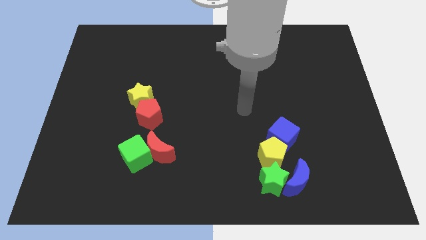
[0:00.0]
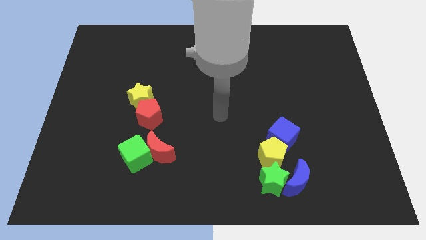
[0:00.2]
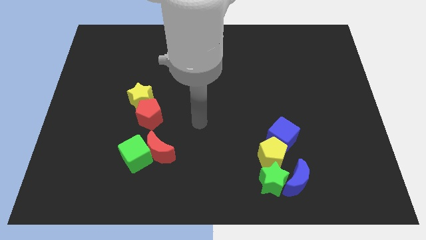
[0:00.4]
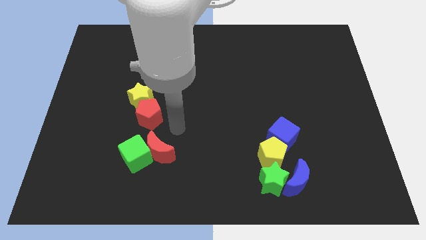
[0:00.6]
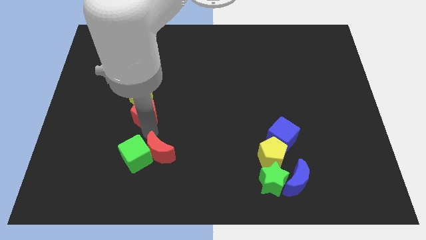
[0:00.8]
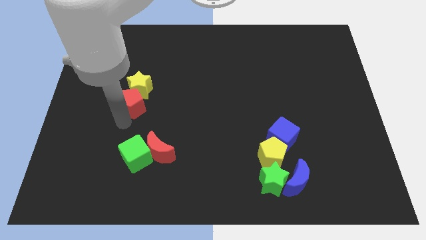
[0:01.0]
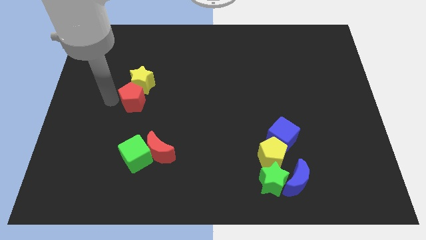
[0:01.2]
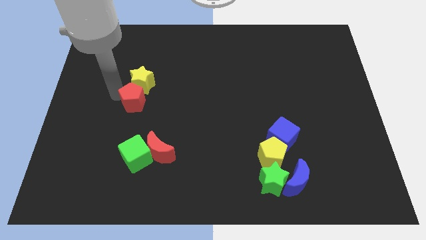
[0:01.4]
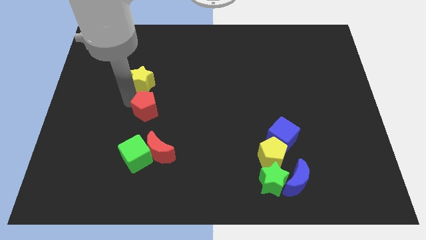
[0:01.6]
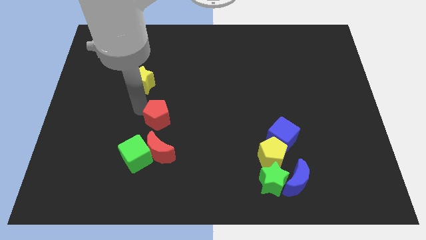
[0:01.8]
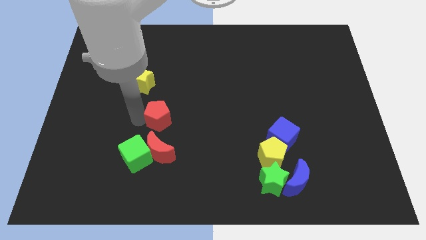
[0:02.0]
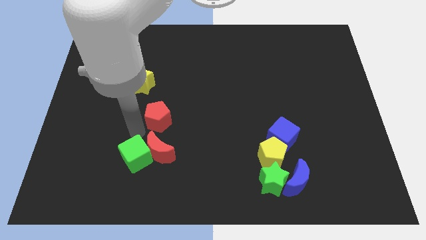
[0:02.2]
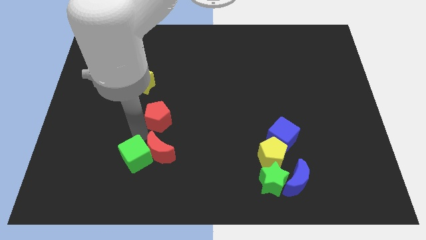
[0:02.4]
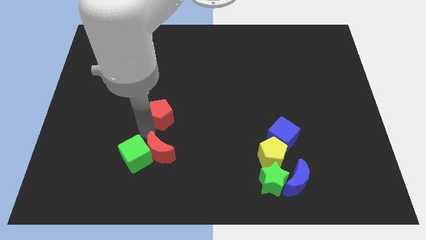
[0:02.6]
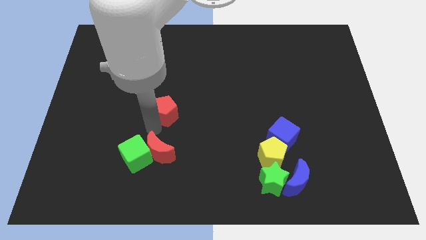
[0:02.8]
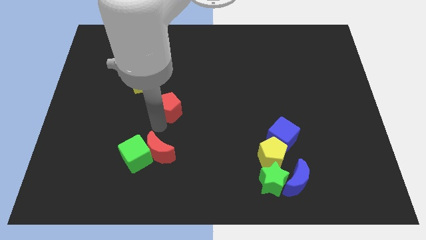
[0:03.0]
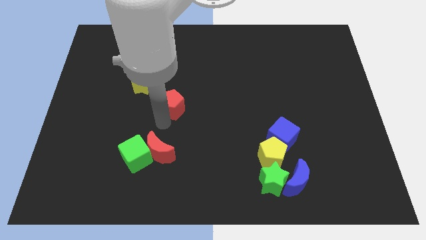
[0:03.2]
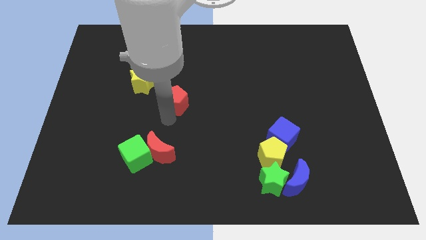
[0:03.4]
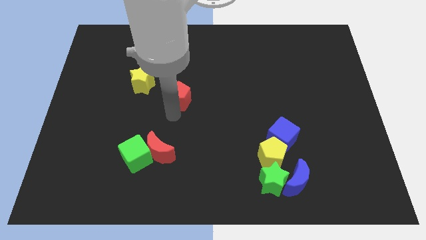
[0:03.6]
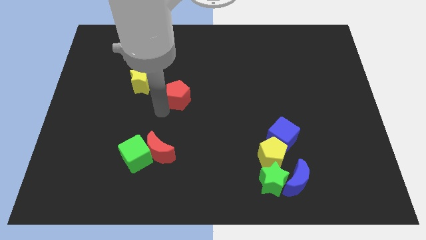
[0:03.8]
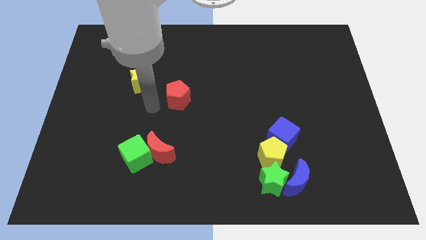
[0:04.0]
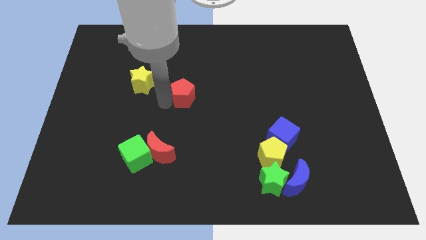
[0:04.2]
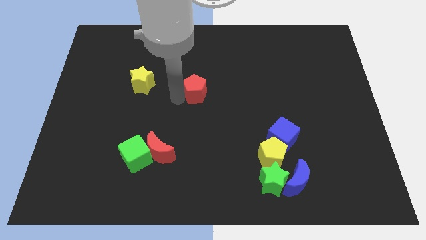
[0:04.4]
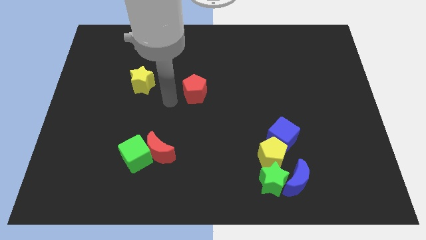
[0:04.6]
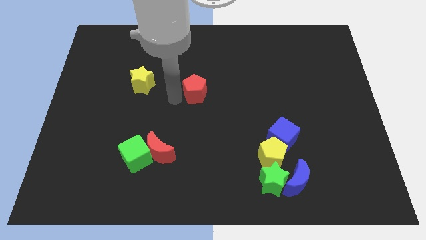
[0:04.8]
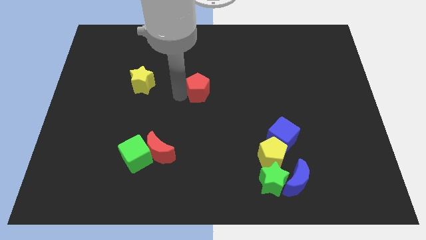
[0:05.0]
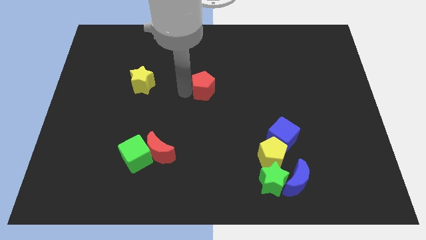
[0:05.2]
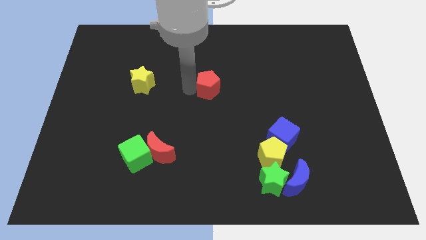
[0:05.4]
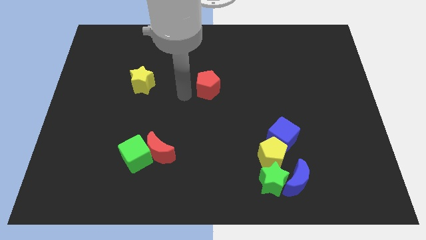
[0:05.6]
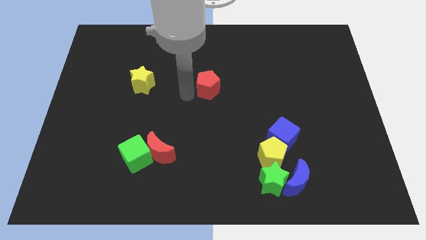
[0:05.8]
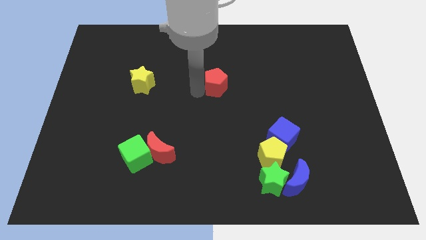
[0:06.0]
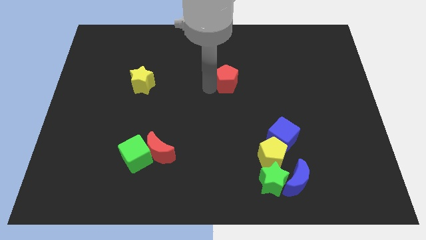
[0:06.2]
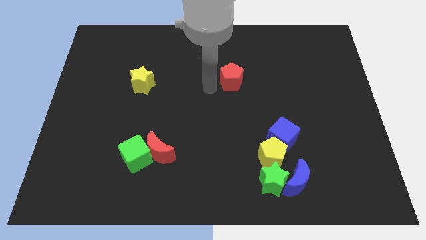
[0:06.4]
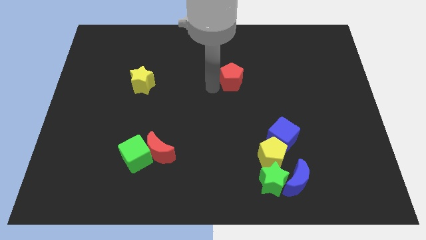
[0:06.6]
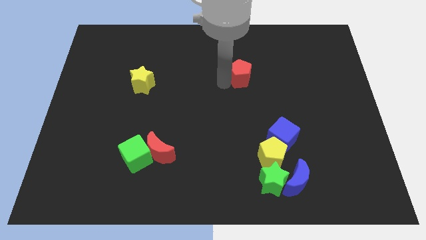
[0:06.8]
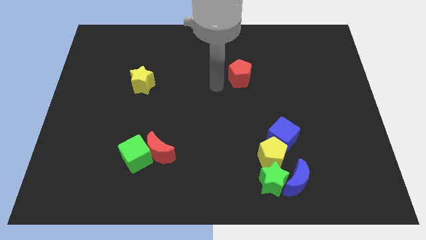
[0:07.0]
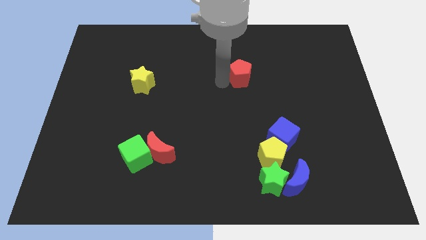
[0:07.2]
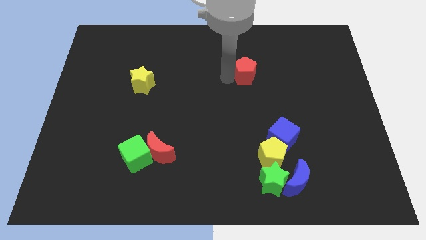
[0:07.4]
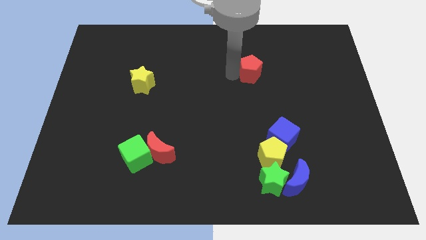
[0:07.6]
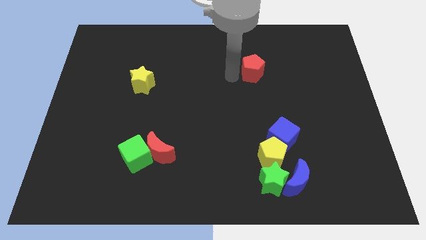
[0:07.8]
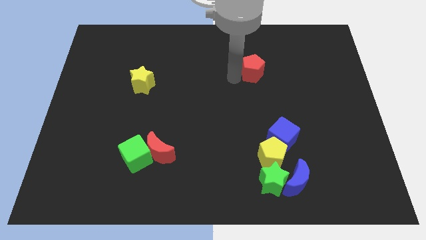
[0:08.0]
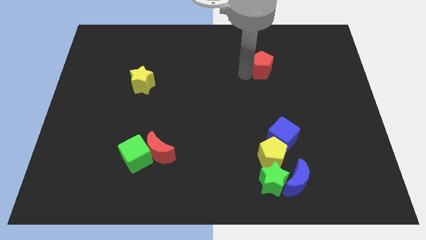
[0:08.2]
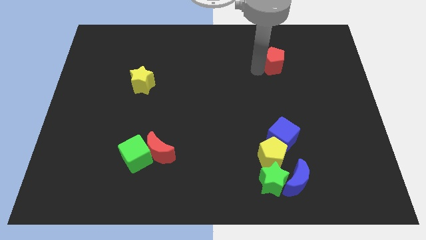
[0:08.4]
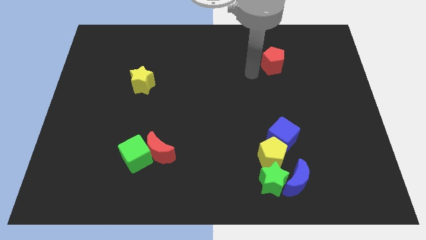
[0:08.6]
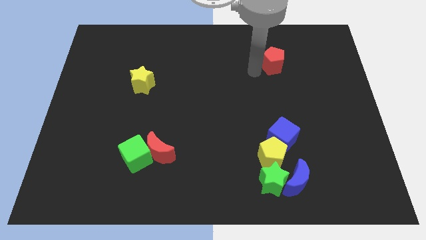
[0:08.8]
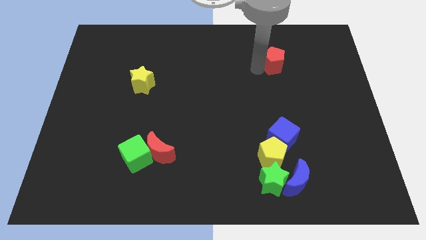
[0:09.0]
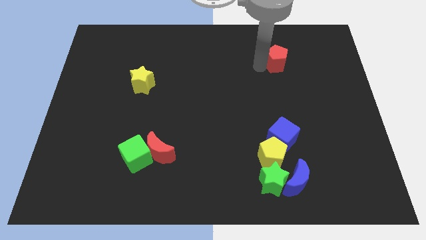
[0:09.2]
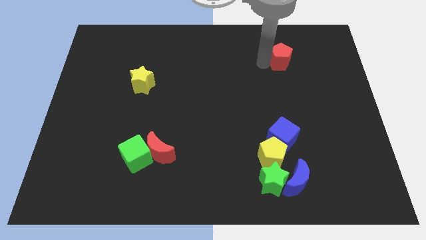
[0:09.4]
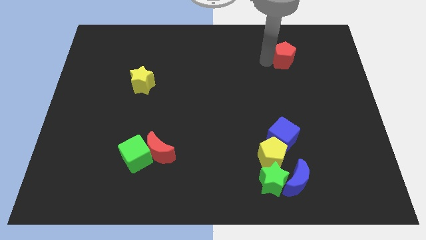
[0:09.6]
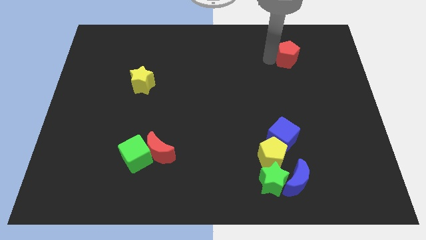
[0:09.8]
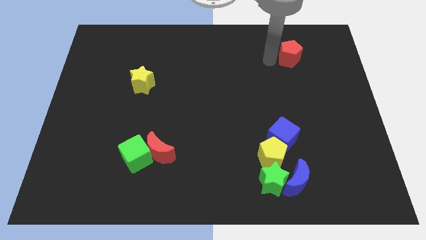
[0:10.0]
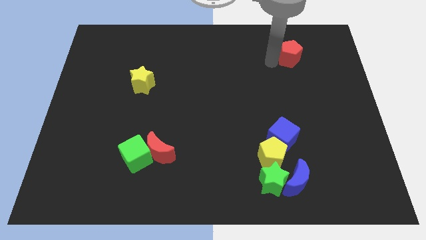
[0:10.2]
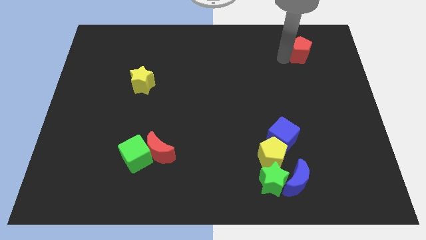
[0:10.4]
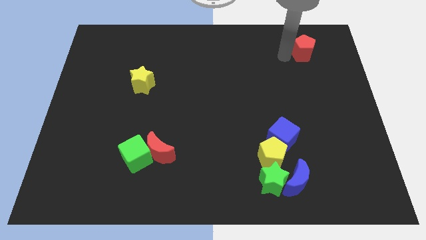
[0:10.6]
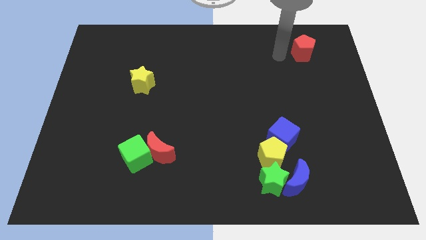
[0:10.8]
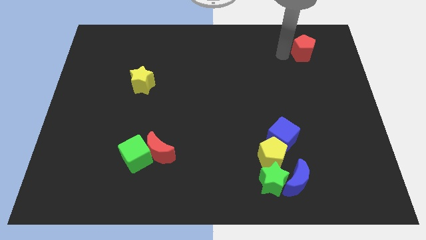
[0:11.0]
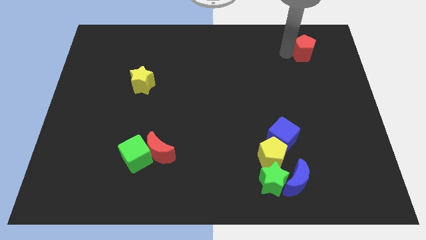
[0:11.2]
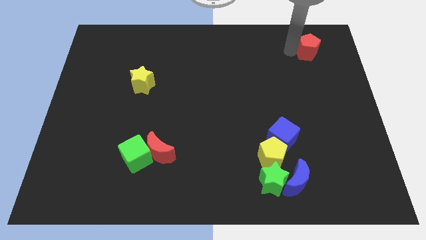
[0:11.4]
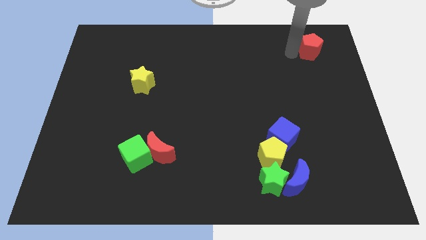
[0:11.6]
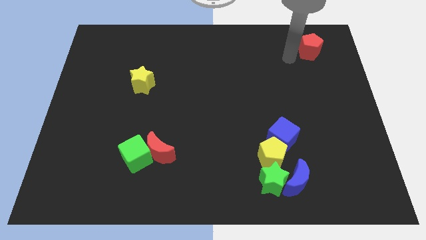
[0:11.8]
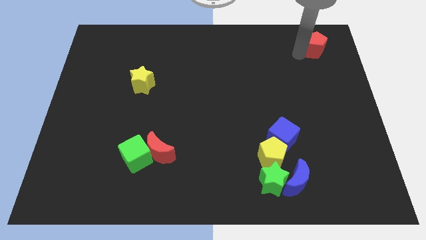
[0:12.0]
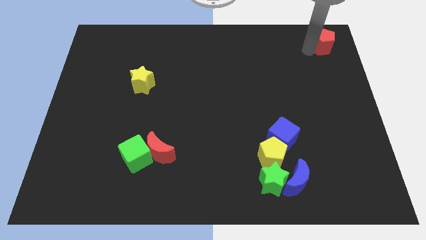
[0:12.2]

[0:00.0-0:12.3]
push the red pentagon to the top right corner

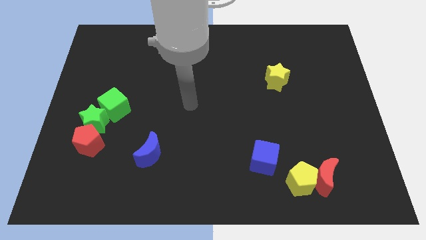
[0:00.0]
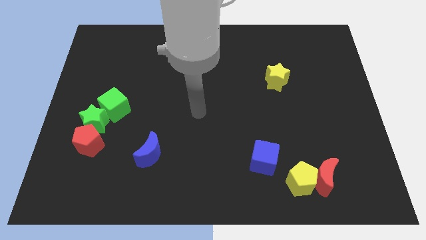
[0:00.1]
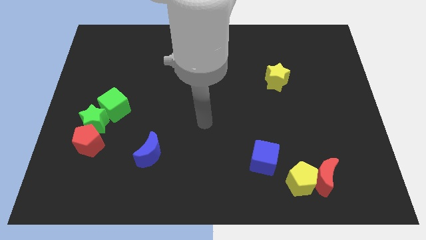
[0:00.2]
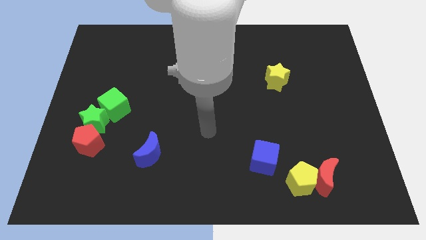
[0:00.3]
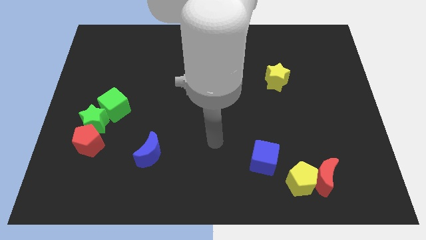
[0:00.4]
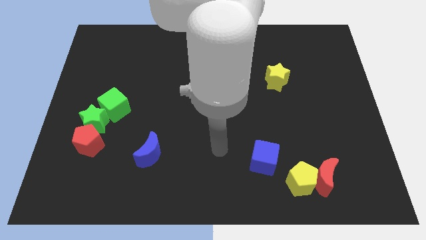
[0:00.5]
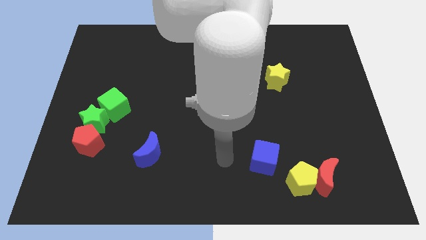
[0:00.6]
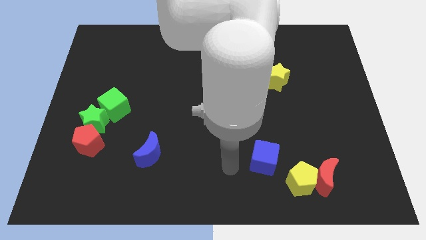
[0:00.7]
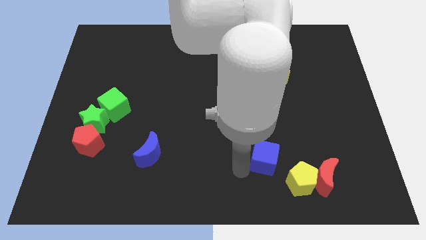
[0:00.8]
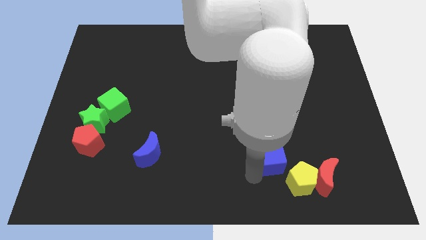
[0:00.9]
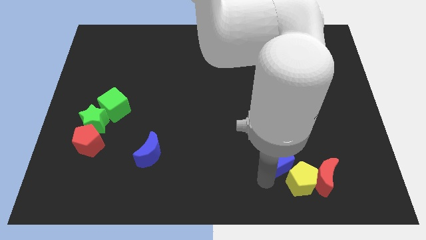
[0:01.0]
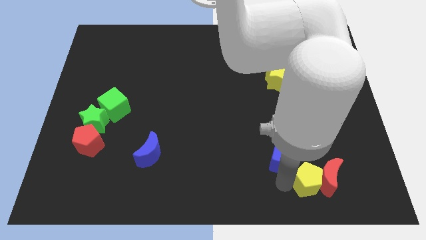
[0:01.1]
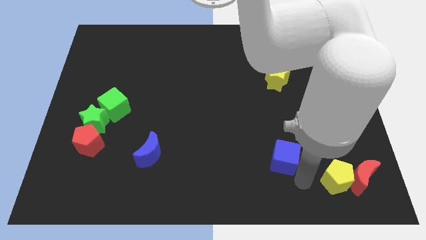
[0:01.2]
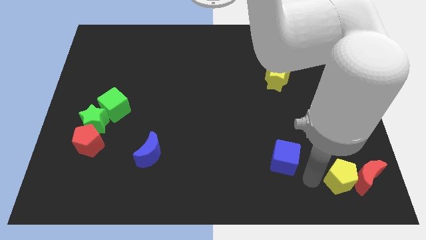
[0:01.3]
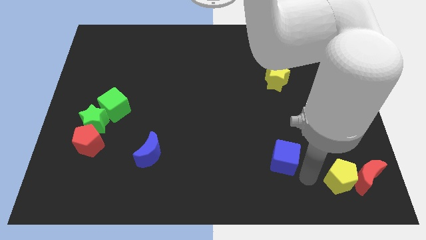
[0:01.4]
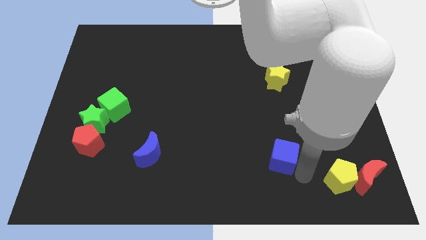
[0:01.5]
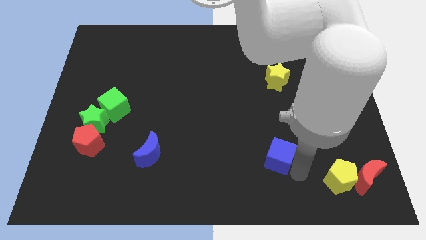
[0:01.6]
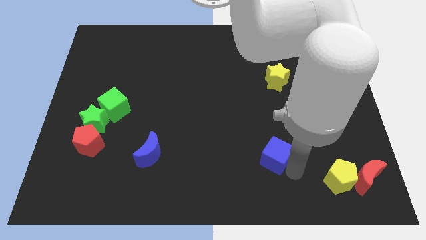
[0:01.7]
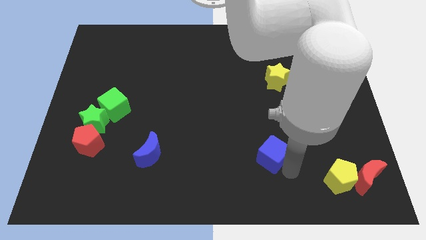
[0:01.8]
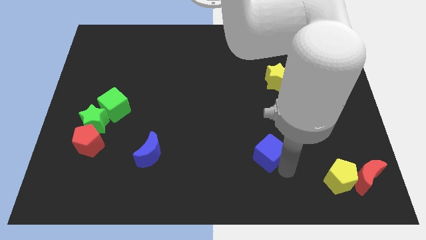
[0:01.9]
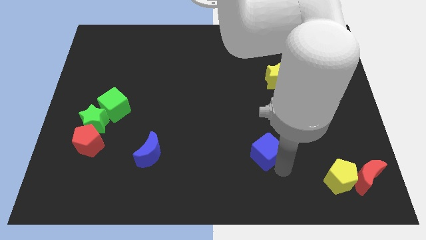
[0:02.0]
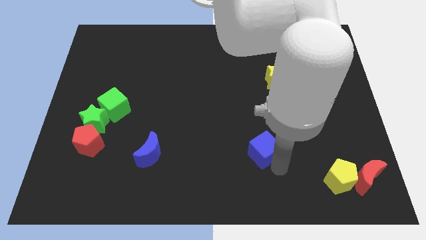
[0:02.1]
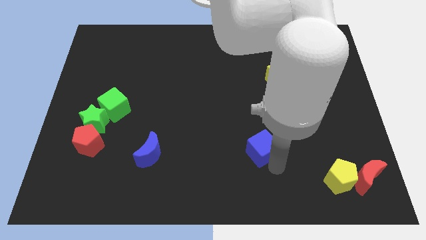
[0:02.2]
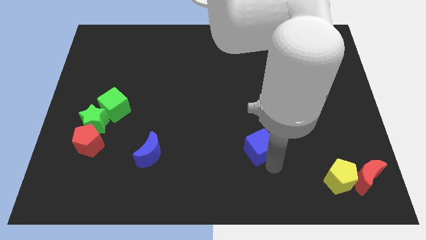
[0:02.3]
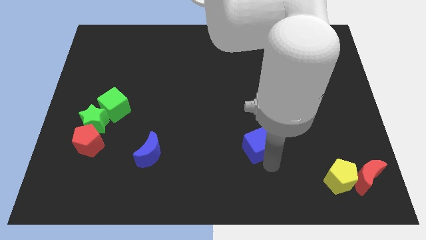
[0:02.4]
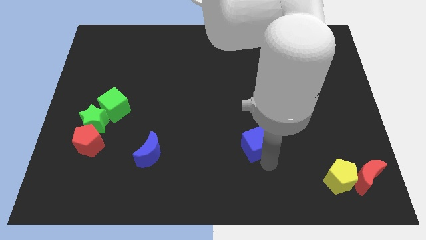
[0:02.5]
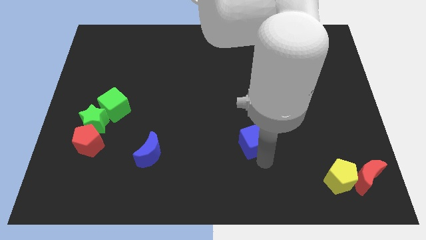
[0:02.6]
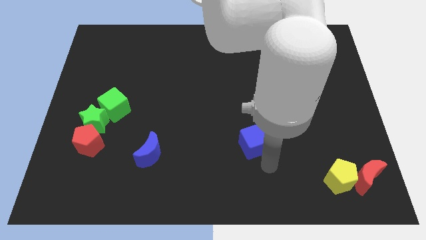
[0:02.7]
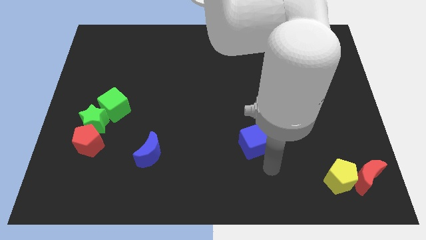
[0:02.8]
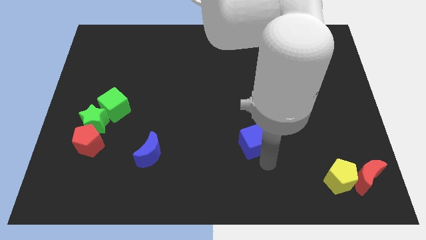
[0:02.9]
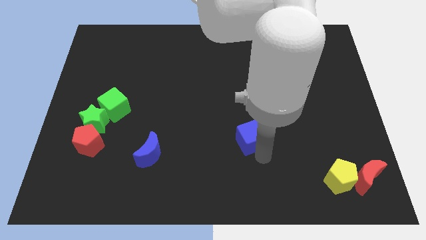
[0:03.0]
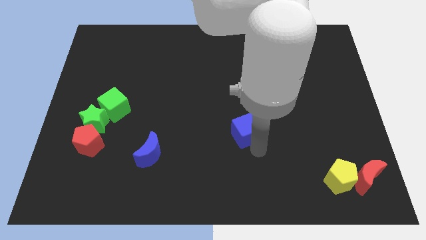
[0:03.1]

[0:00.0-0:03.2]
push the blue cube to the center
